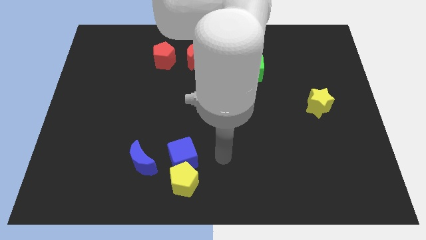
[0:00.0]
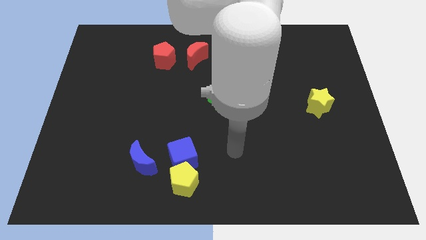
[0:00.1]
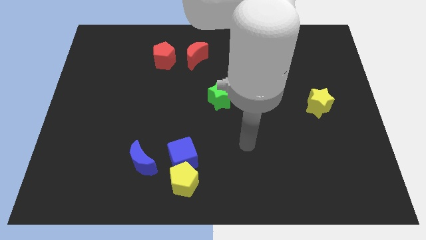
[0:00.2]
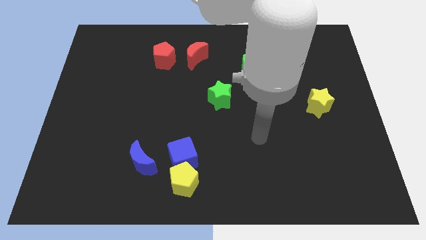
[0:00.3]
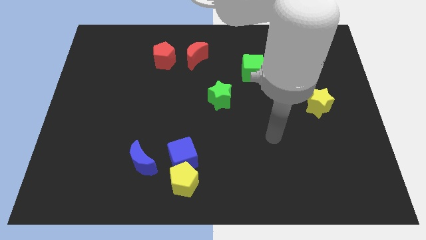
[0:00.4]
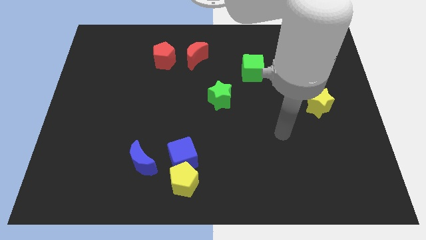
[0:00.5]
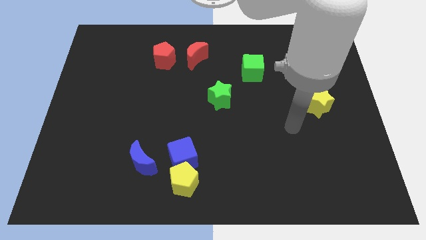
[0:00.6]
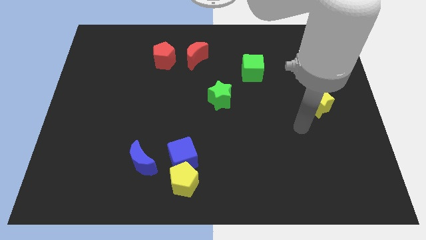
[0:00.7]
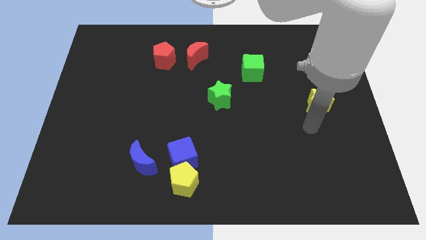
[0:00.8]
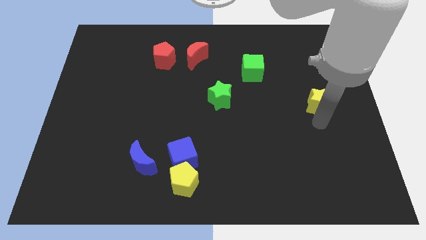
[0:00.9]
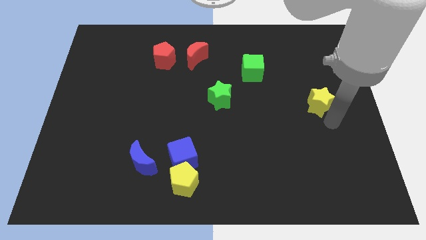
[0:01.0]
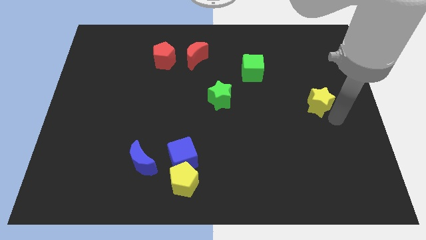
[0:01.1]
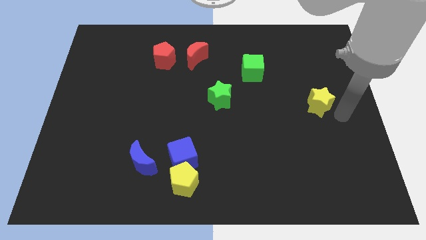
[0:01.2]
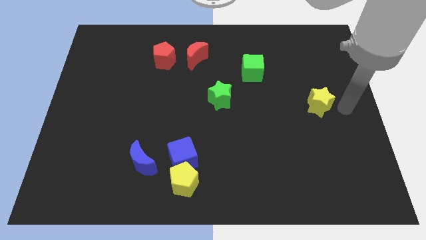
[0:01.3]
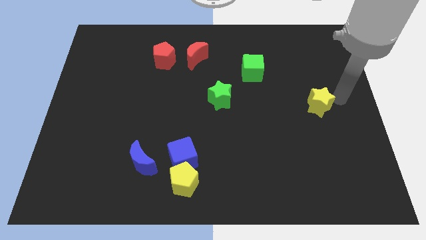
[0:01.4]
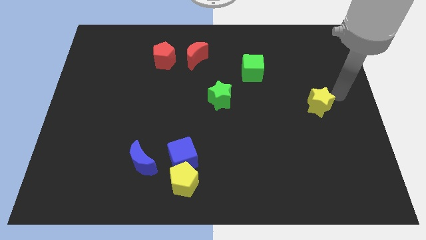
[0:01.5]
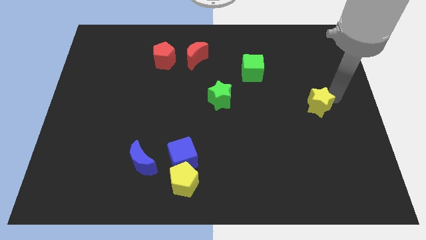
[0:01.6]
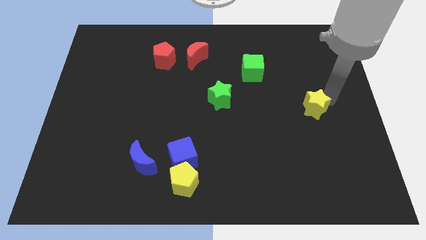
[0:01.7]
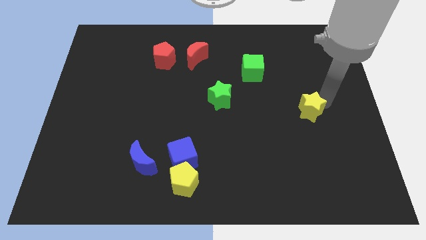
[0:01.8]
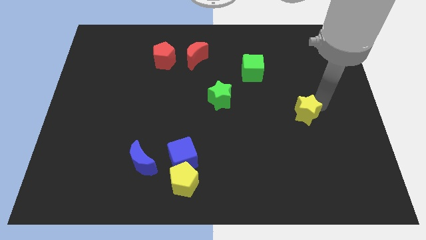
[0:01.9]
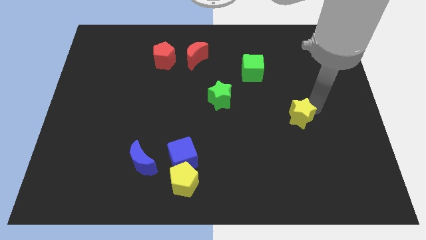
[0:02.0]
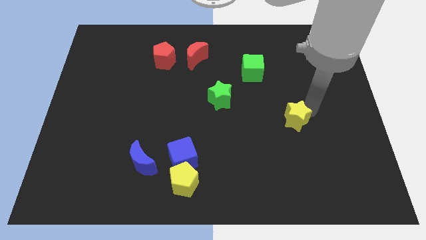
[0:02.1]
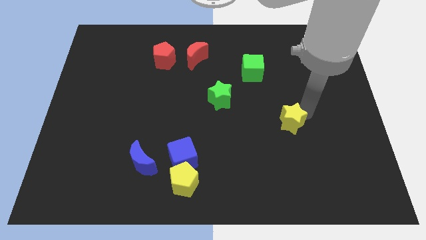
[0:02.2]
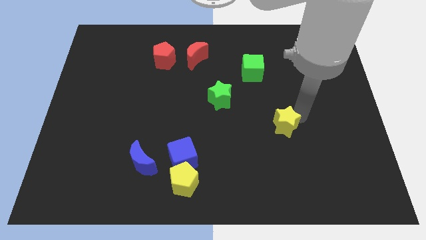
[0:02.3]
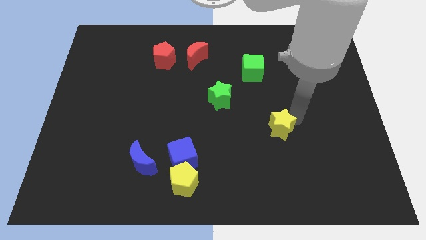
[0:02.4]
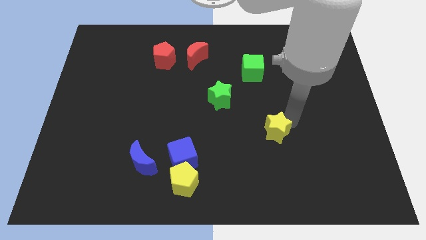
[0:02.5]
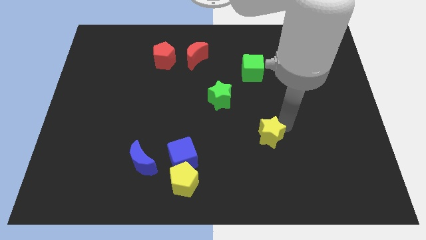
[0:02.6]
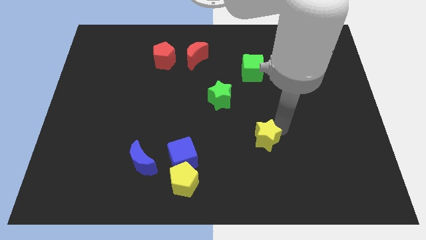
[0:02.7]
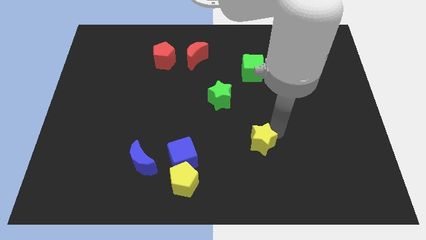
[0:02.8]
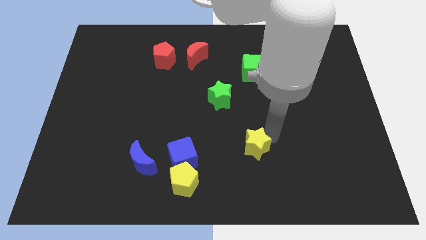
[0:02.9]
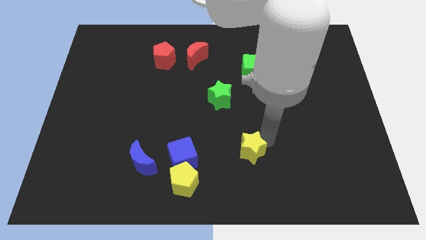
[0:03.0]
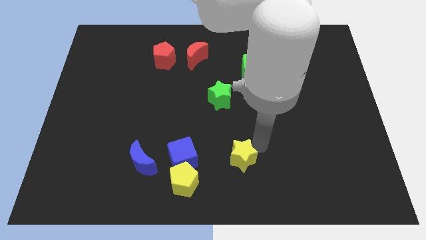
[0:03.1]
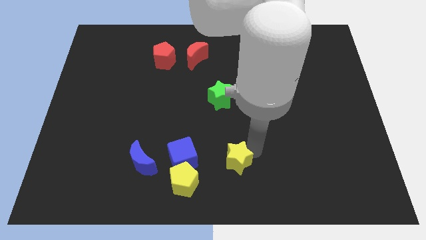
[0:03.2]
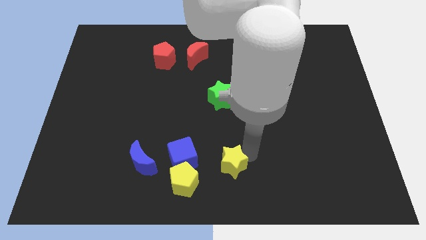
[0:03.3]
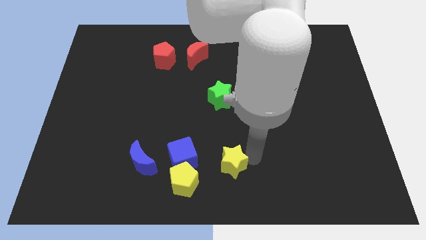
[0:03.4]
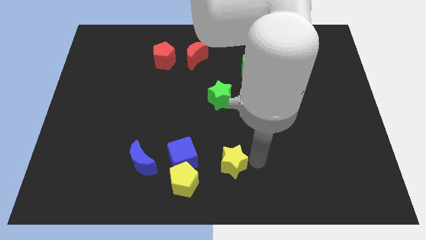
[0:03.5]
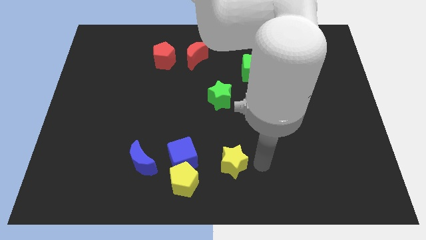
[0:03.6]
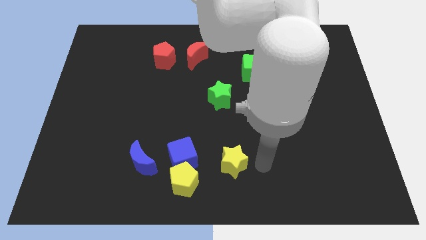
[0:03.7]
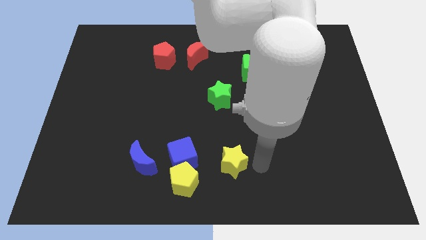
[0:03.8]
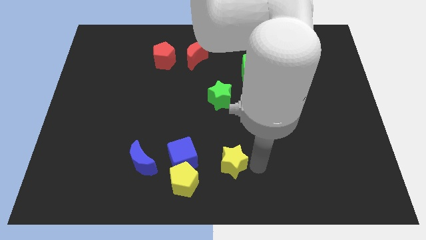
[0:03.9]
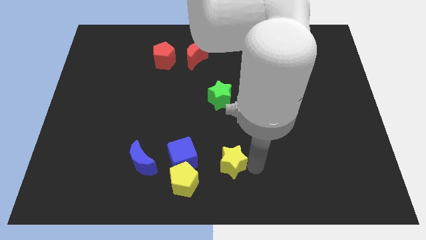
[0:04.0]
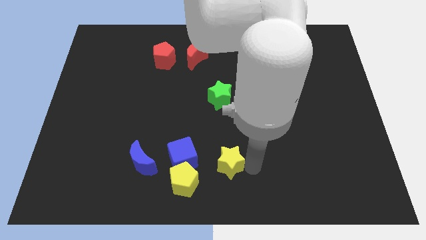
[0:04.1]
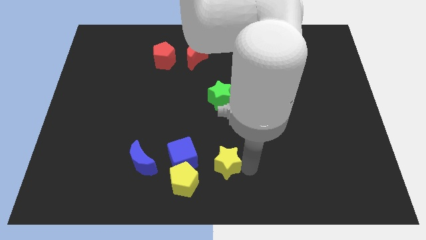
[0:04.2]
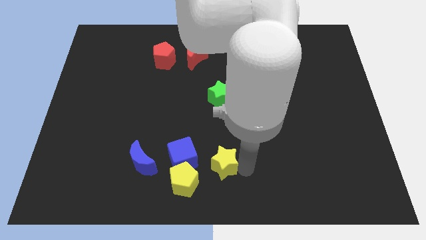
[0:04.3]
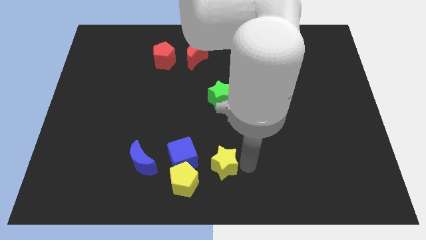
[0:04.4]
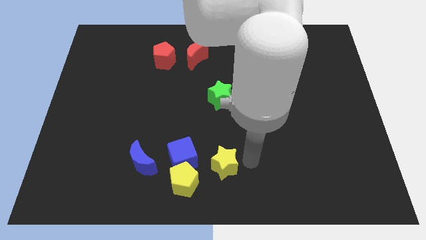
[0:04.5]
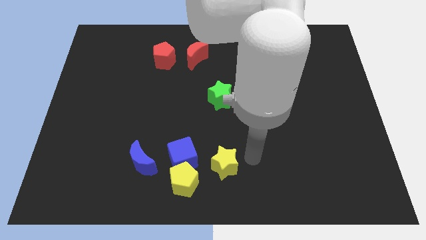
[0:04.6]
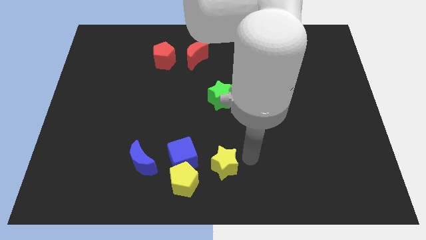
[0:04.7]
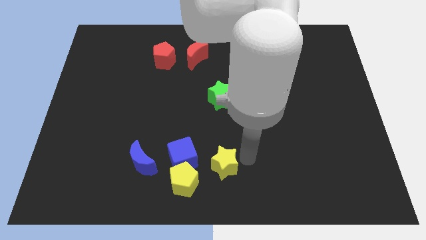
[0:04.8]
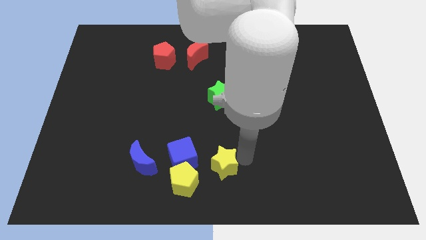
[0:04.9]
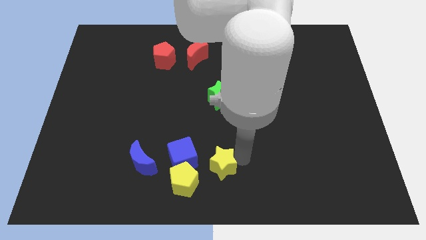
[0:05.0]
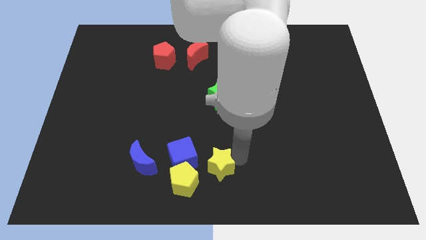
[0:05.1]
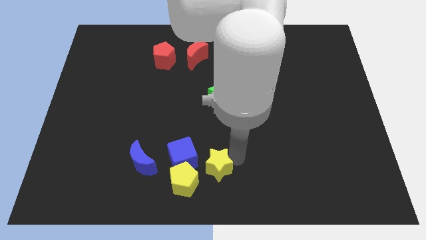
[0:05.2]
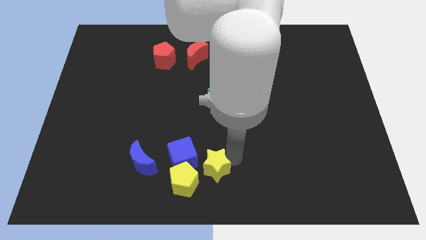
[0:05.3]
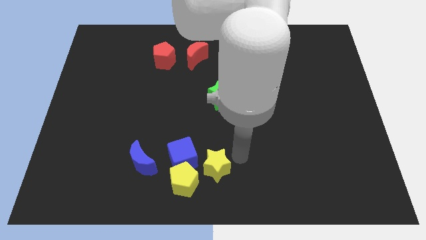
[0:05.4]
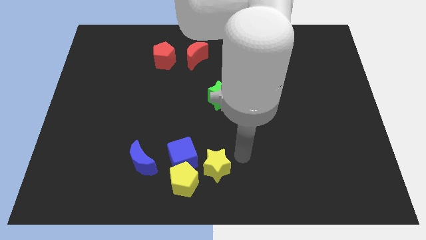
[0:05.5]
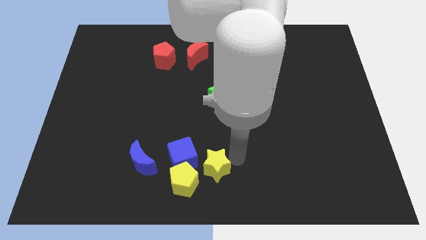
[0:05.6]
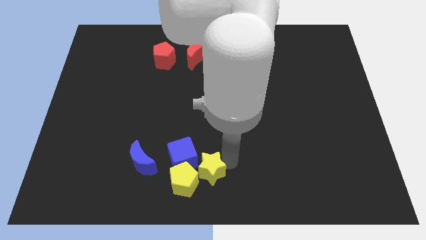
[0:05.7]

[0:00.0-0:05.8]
push the yellow star to the yellow pentagon

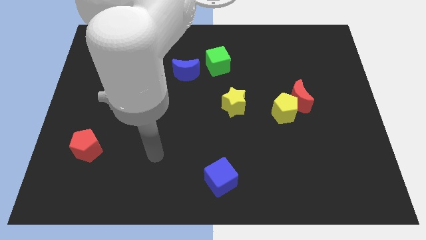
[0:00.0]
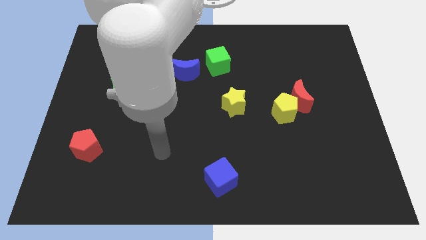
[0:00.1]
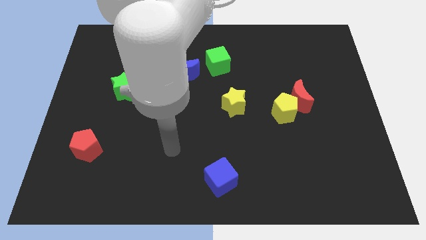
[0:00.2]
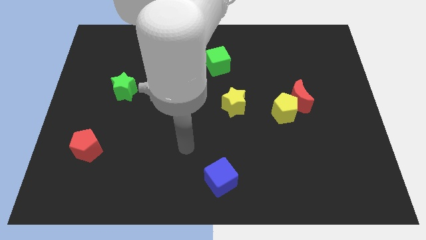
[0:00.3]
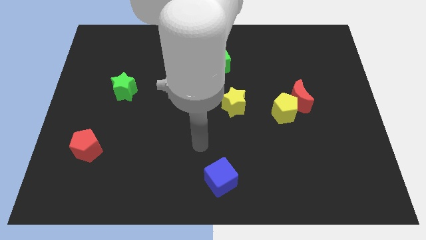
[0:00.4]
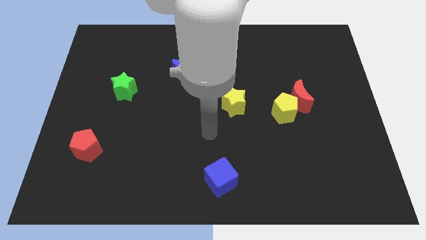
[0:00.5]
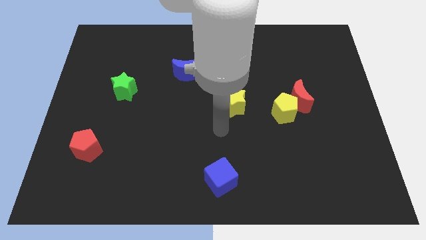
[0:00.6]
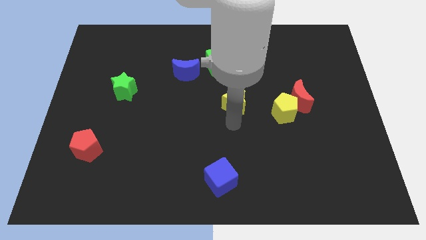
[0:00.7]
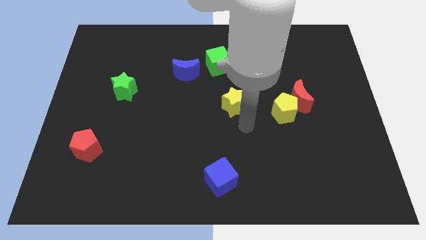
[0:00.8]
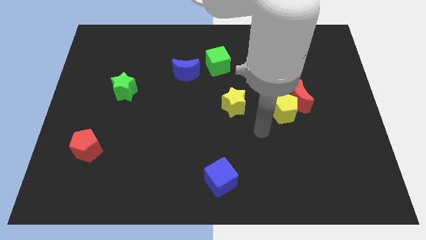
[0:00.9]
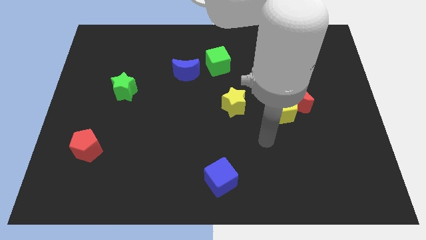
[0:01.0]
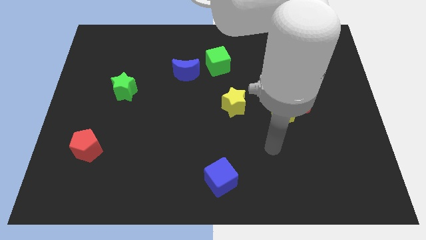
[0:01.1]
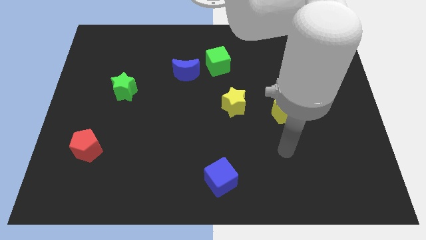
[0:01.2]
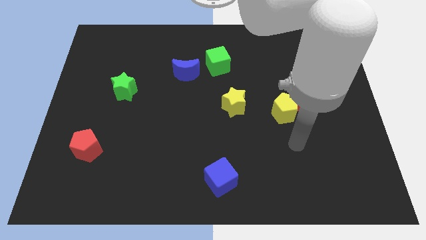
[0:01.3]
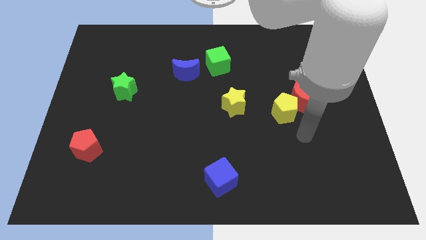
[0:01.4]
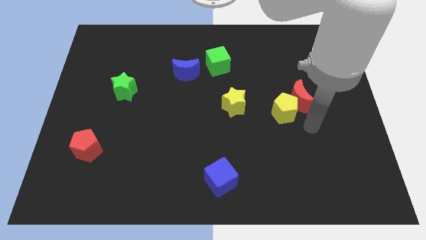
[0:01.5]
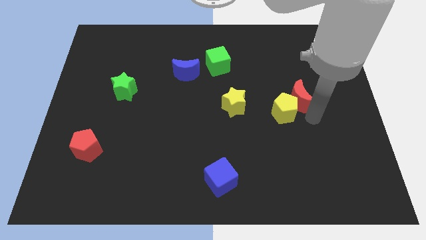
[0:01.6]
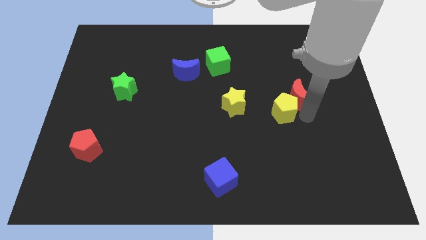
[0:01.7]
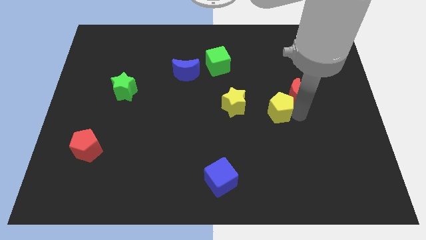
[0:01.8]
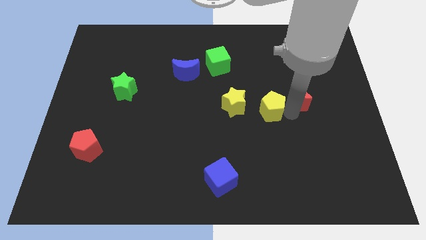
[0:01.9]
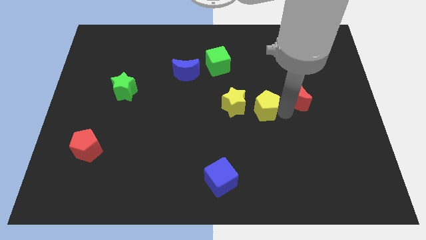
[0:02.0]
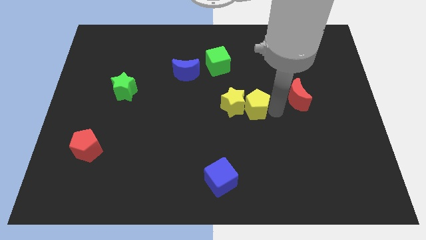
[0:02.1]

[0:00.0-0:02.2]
put the yellow pentagon close to the yellow star
